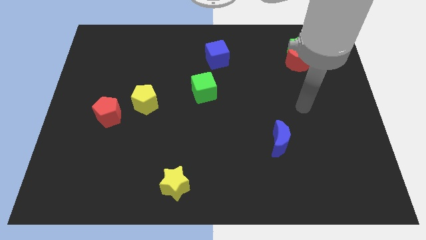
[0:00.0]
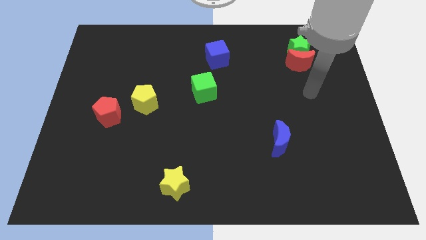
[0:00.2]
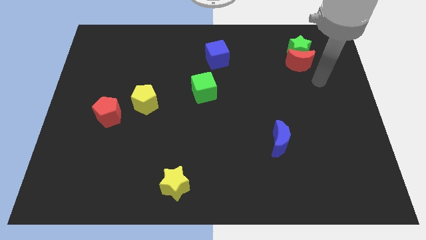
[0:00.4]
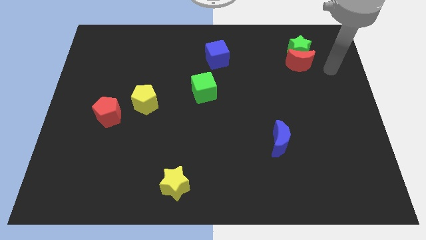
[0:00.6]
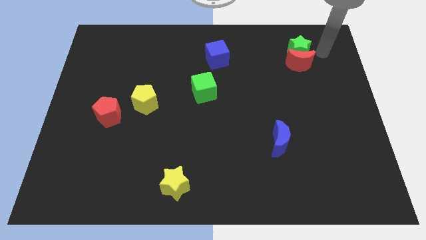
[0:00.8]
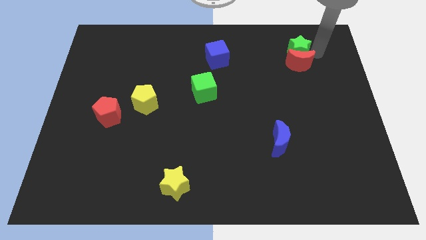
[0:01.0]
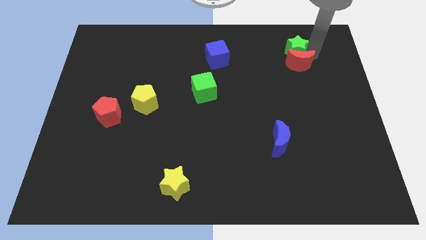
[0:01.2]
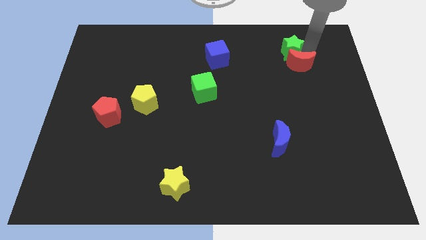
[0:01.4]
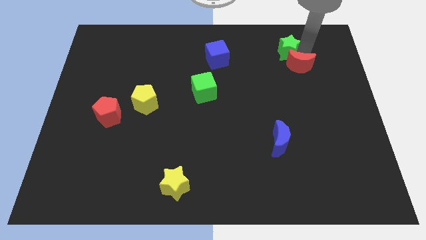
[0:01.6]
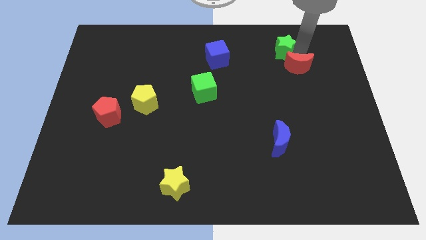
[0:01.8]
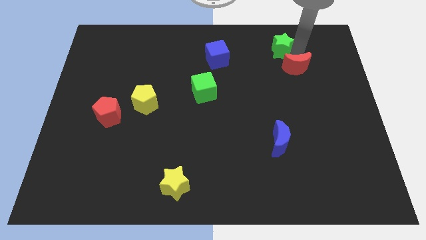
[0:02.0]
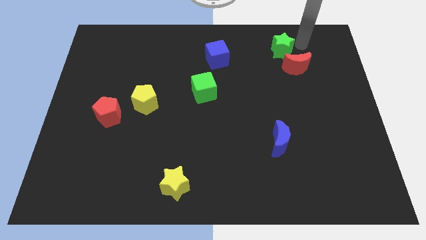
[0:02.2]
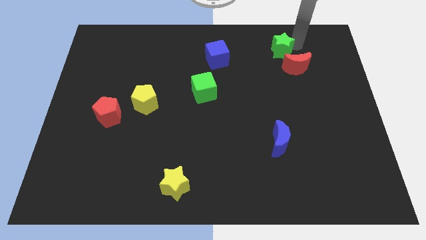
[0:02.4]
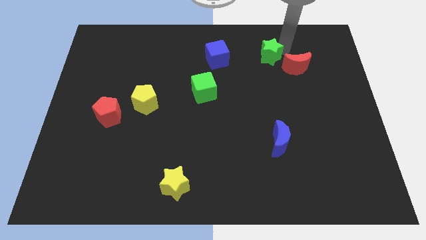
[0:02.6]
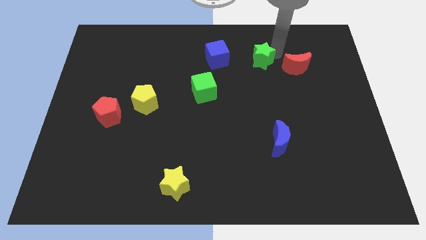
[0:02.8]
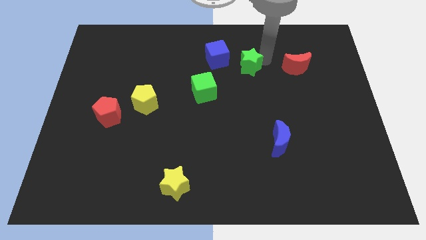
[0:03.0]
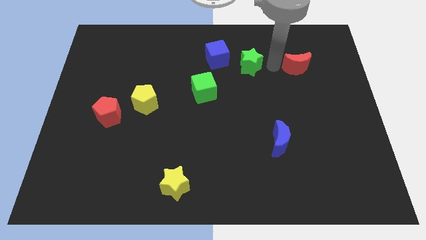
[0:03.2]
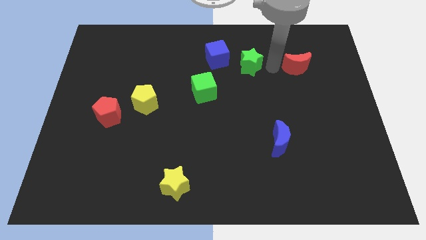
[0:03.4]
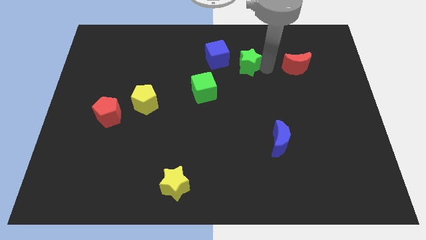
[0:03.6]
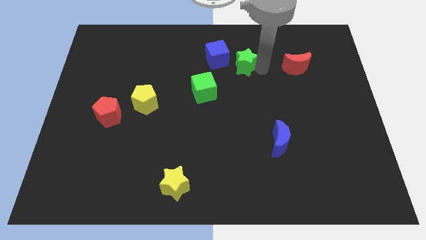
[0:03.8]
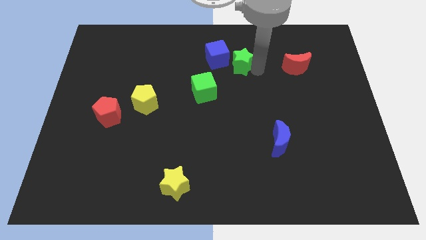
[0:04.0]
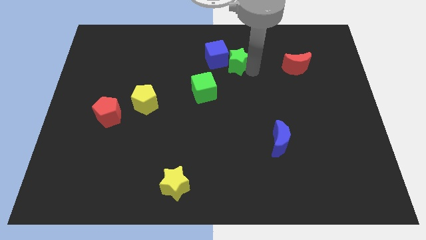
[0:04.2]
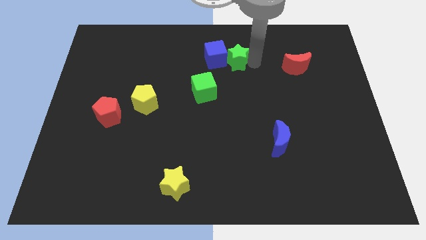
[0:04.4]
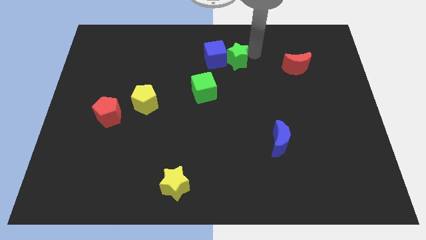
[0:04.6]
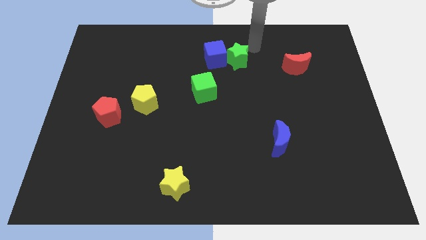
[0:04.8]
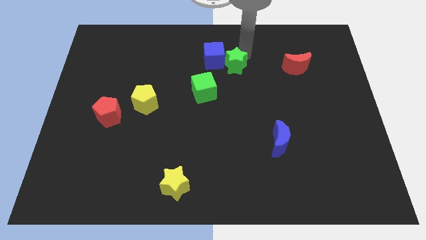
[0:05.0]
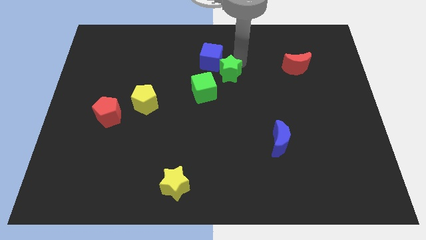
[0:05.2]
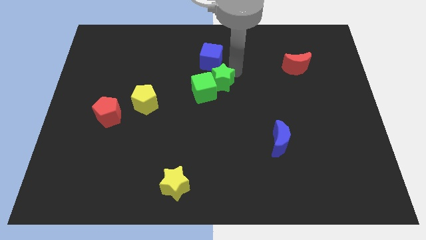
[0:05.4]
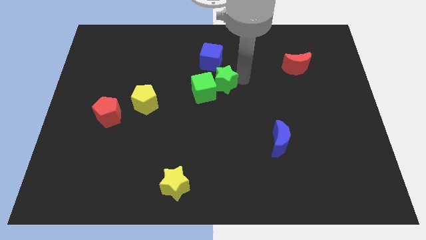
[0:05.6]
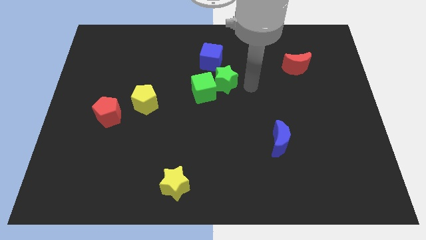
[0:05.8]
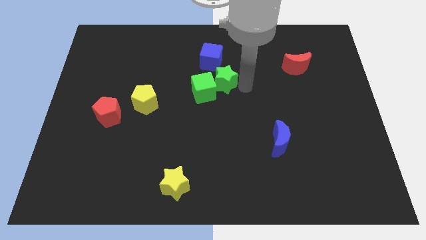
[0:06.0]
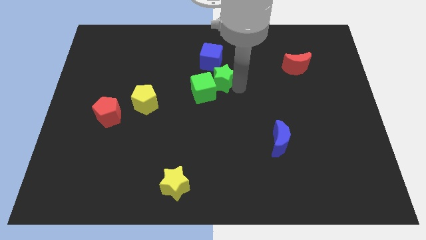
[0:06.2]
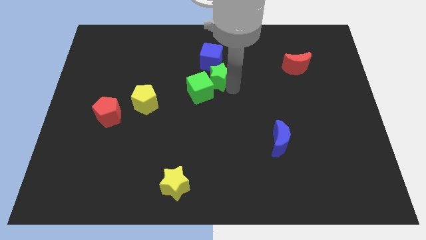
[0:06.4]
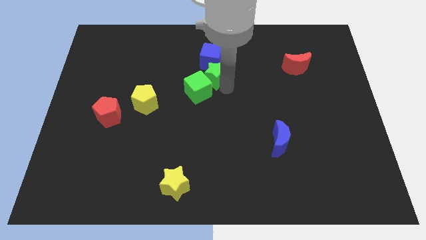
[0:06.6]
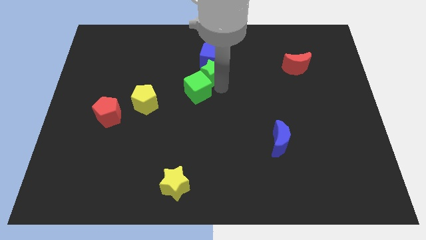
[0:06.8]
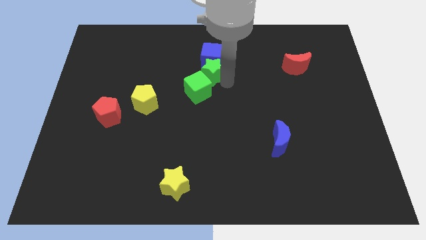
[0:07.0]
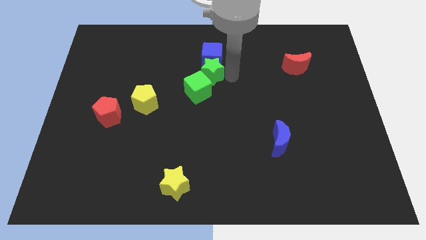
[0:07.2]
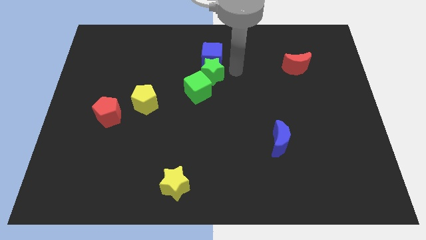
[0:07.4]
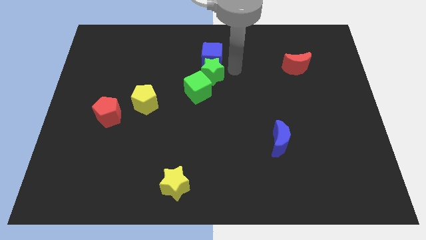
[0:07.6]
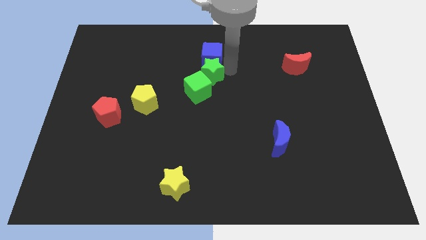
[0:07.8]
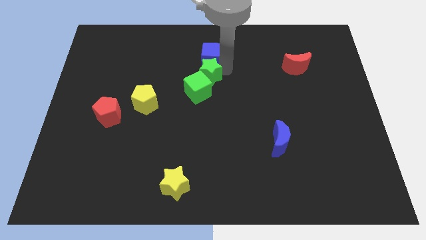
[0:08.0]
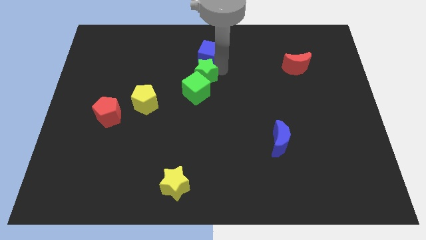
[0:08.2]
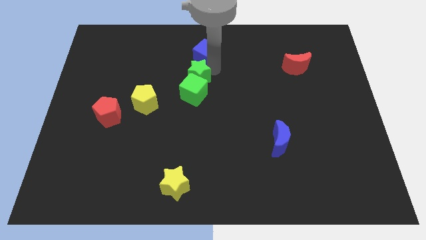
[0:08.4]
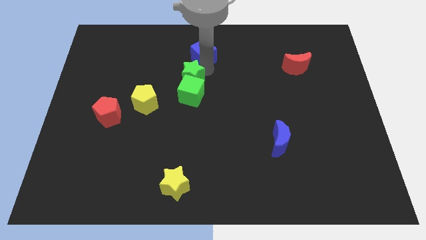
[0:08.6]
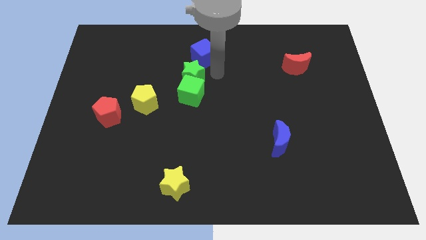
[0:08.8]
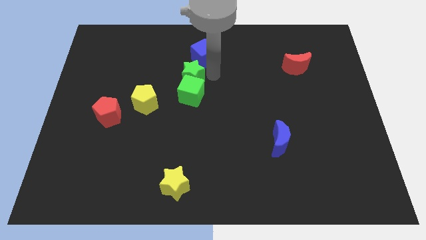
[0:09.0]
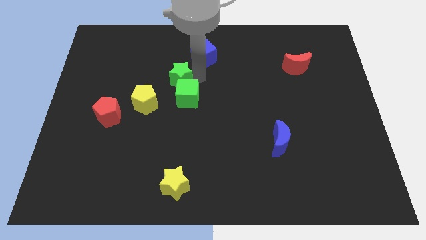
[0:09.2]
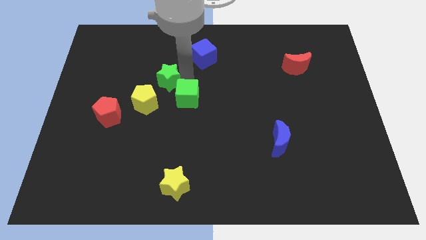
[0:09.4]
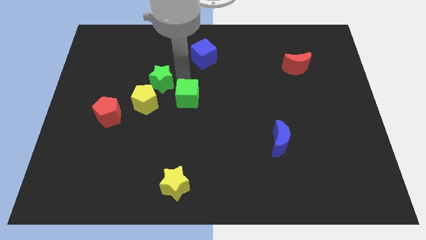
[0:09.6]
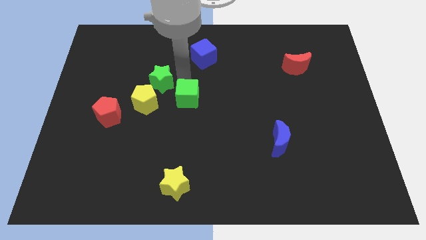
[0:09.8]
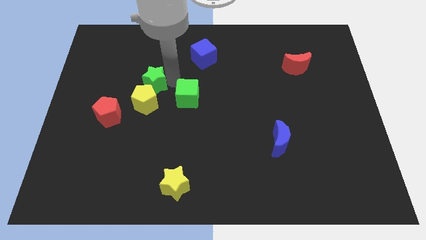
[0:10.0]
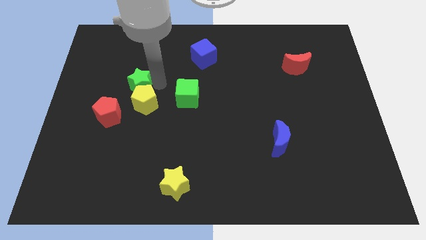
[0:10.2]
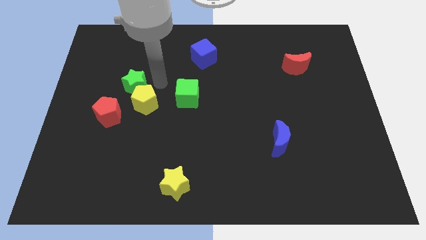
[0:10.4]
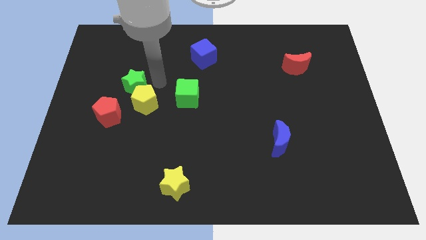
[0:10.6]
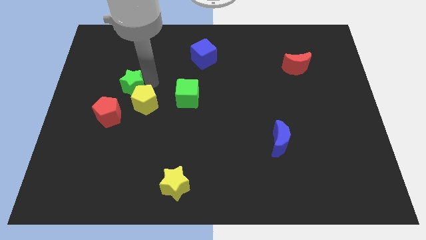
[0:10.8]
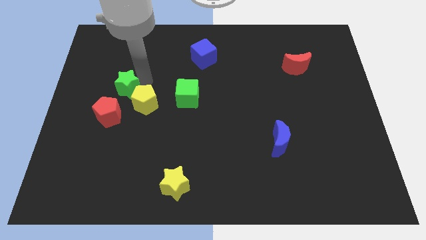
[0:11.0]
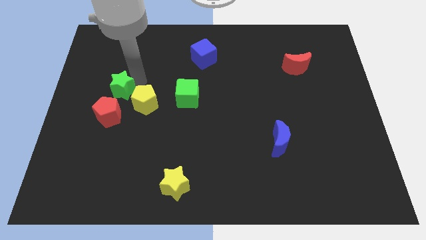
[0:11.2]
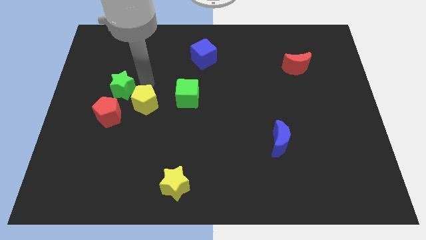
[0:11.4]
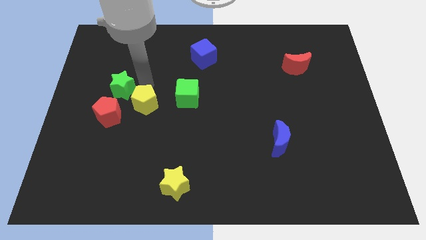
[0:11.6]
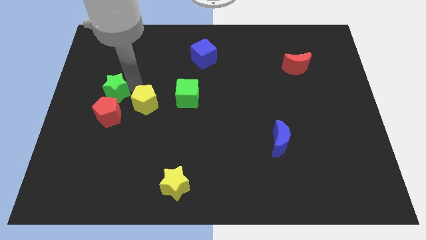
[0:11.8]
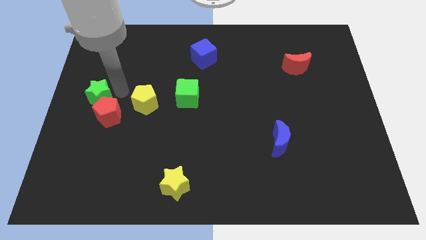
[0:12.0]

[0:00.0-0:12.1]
move the green star to the left side of the board
